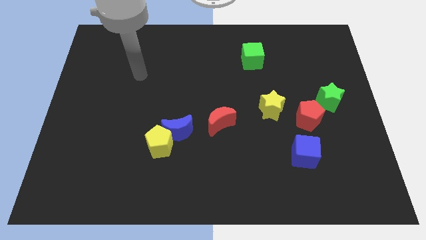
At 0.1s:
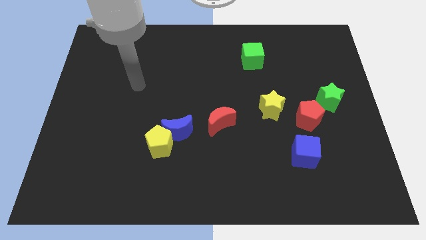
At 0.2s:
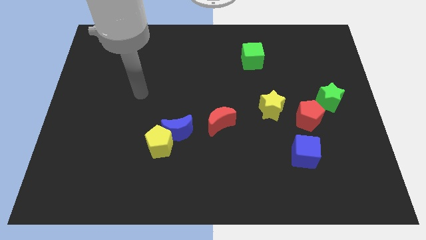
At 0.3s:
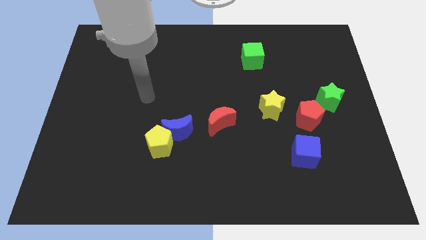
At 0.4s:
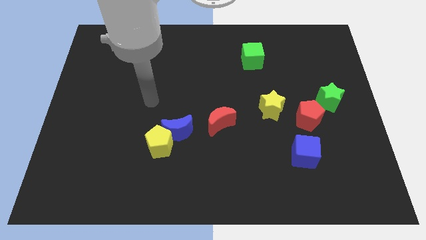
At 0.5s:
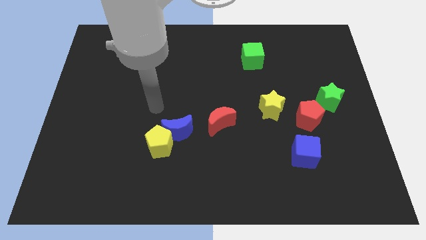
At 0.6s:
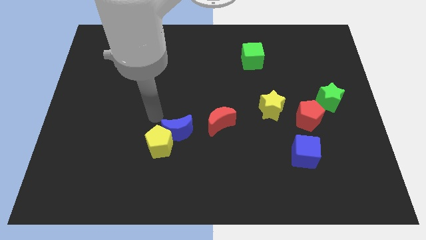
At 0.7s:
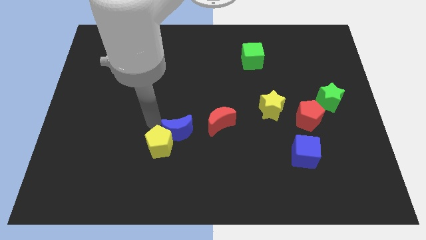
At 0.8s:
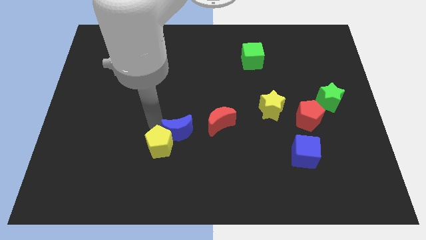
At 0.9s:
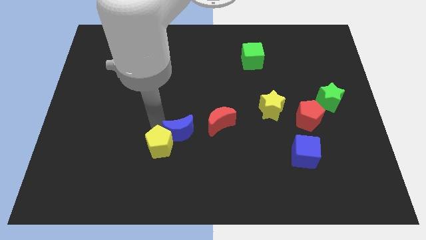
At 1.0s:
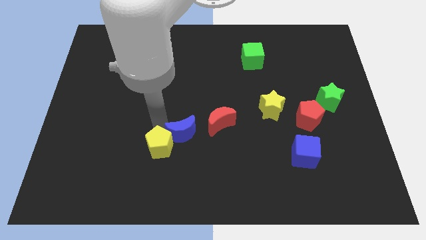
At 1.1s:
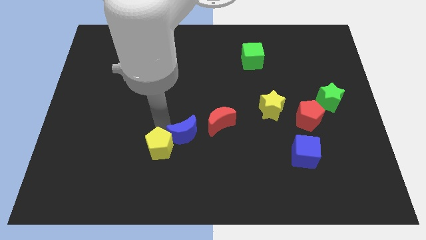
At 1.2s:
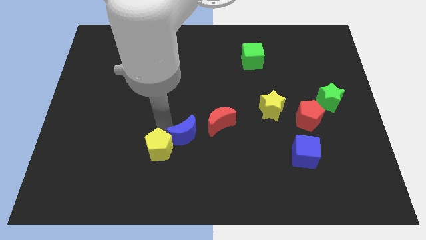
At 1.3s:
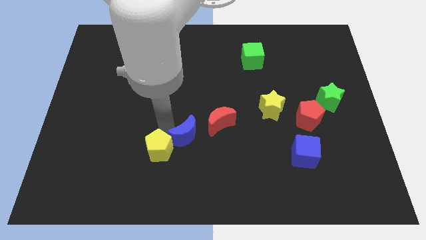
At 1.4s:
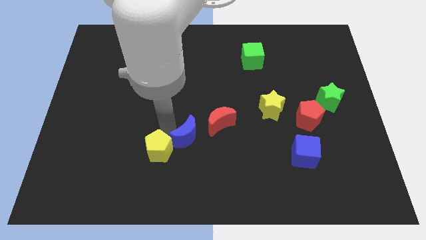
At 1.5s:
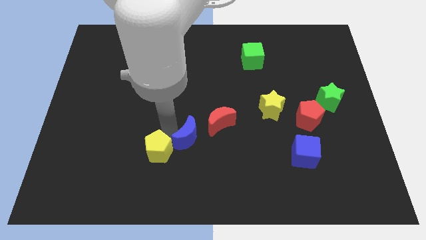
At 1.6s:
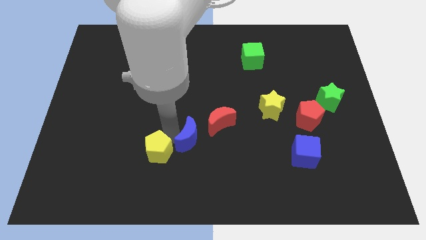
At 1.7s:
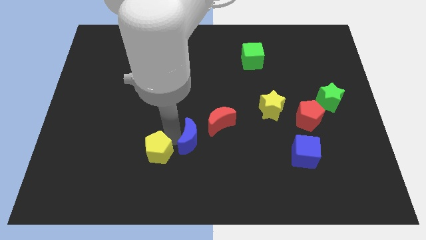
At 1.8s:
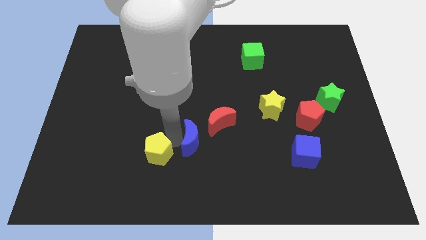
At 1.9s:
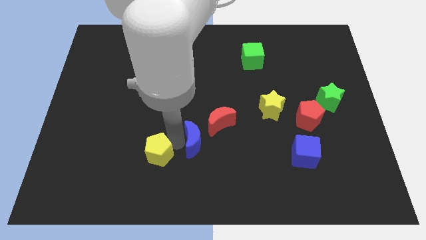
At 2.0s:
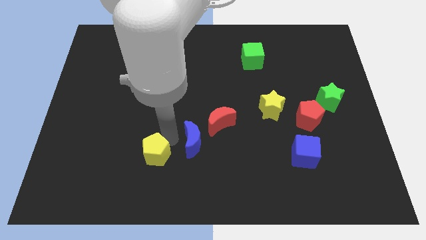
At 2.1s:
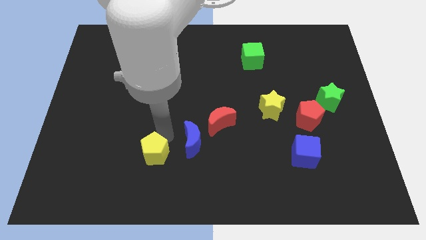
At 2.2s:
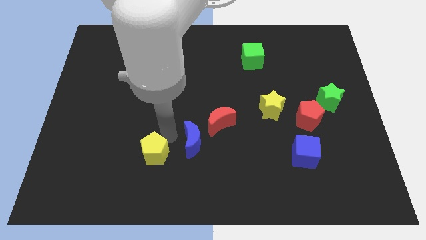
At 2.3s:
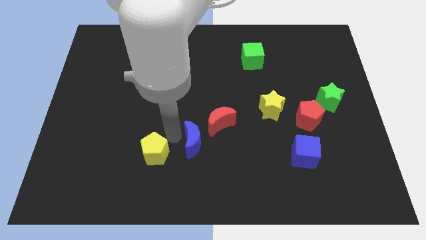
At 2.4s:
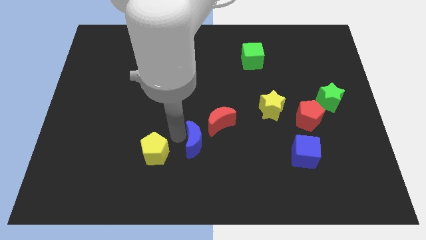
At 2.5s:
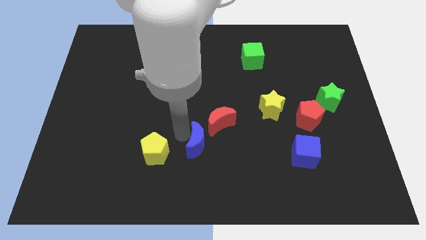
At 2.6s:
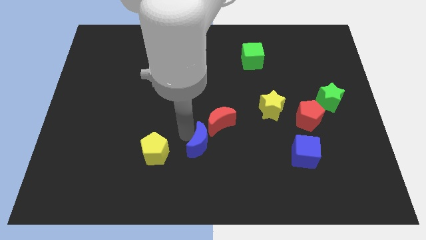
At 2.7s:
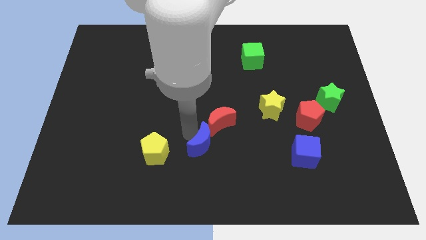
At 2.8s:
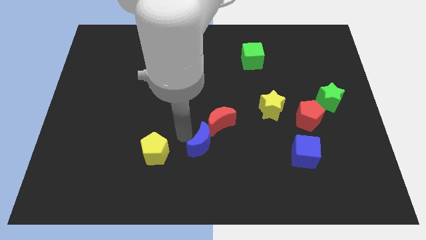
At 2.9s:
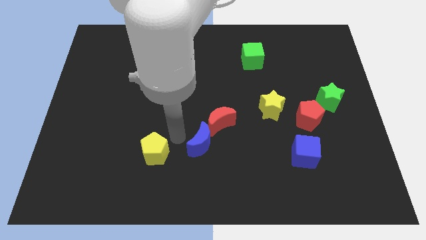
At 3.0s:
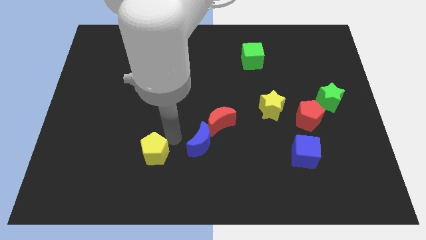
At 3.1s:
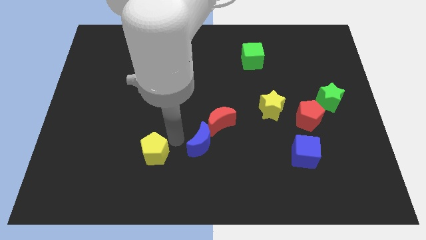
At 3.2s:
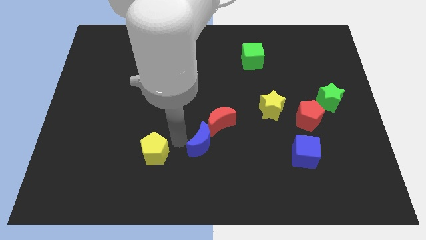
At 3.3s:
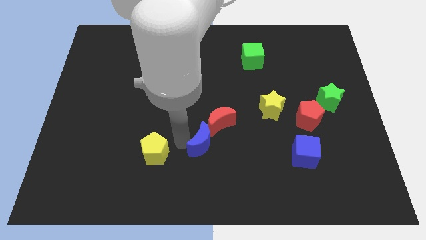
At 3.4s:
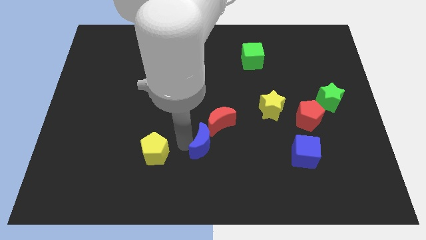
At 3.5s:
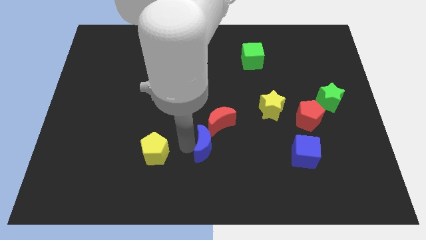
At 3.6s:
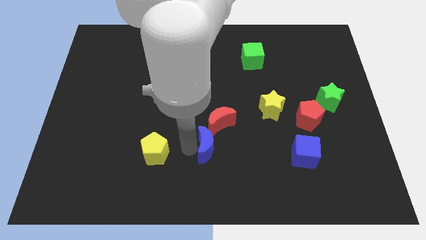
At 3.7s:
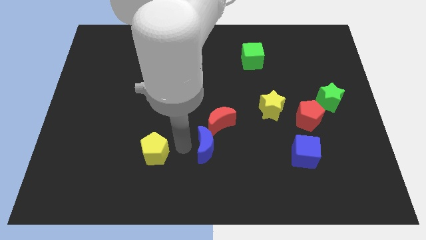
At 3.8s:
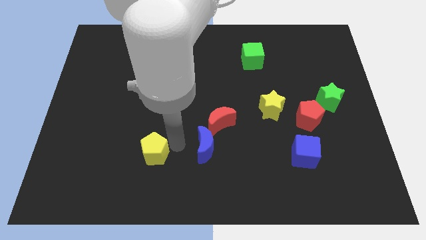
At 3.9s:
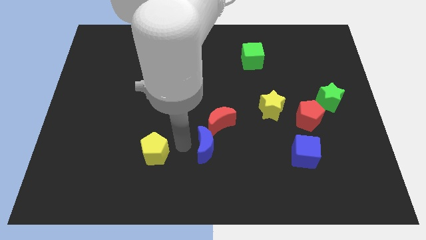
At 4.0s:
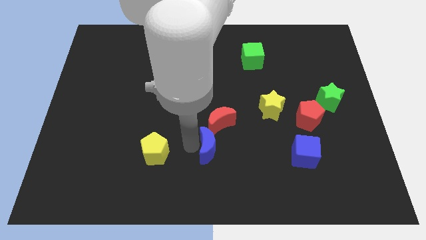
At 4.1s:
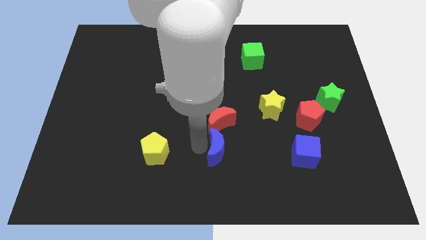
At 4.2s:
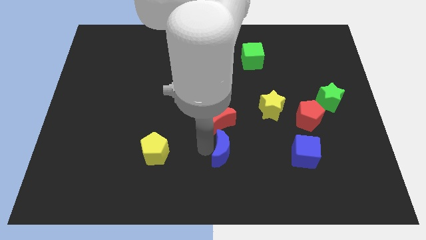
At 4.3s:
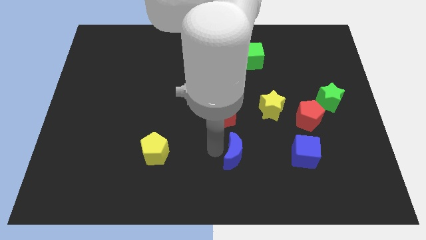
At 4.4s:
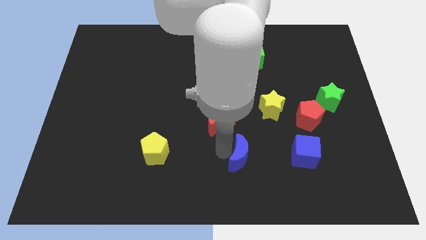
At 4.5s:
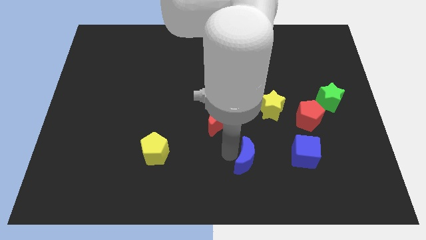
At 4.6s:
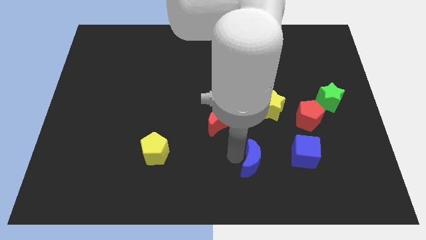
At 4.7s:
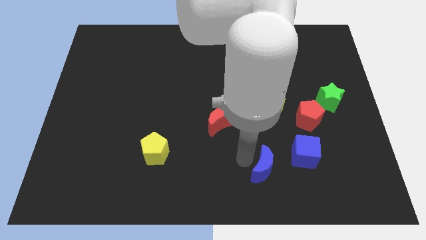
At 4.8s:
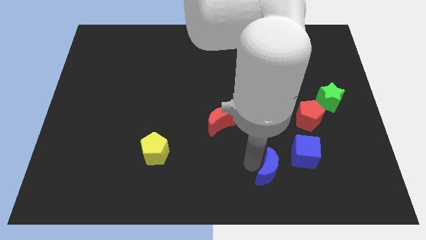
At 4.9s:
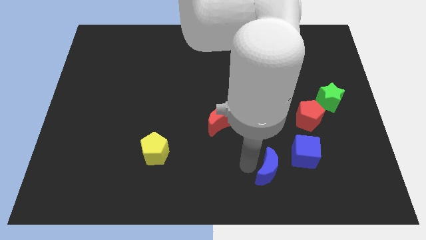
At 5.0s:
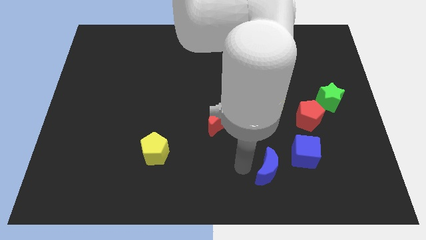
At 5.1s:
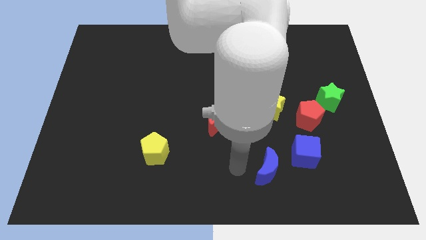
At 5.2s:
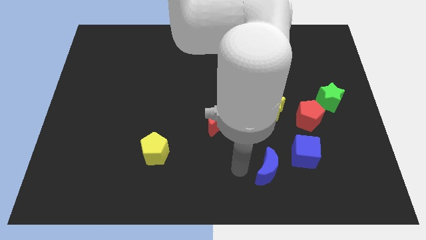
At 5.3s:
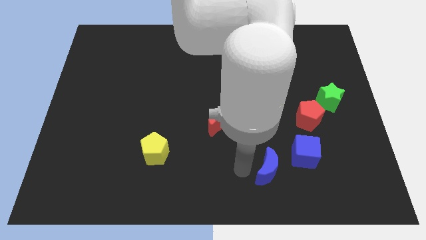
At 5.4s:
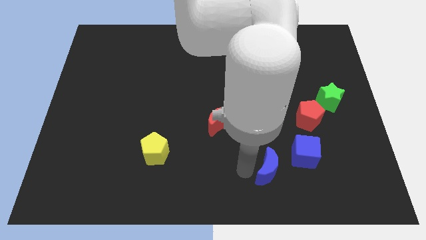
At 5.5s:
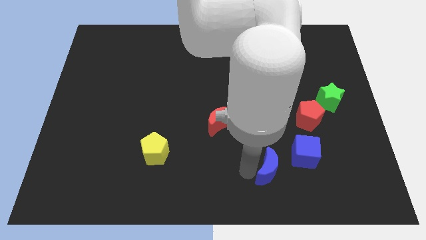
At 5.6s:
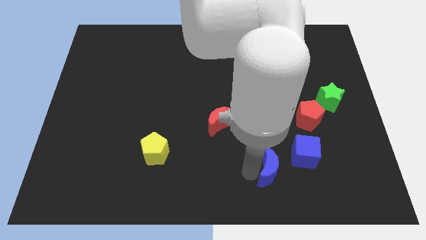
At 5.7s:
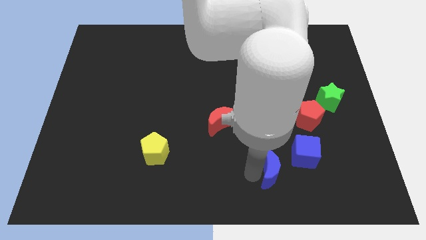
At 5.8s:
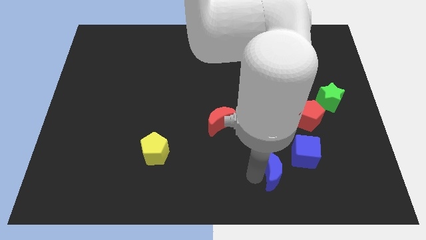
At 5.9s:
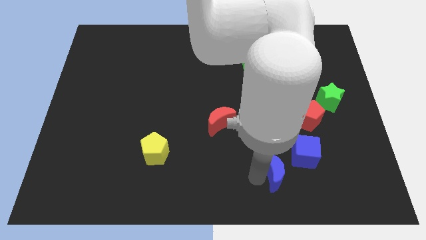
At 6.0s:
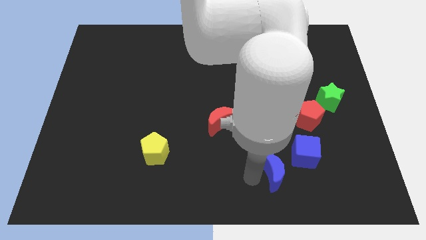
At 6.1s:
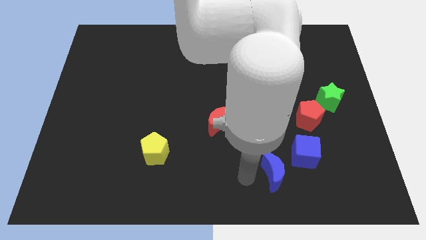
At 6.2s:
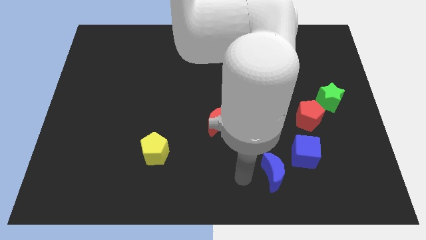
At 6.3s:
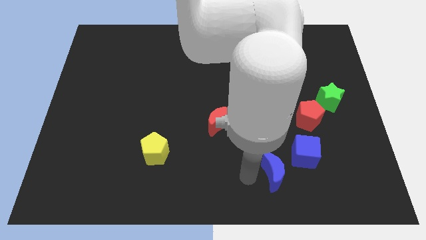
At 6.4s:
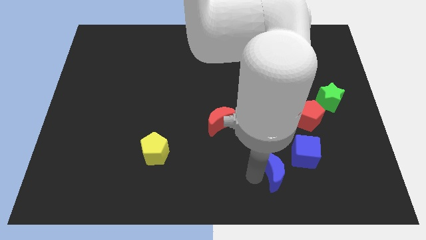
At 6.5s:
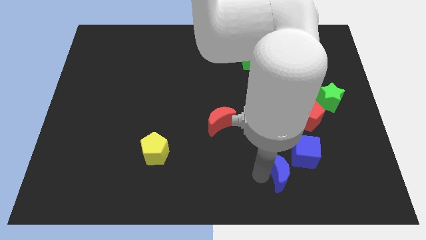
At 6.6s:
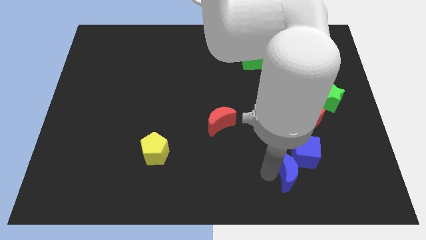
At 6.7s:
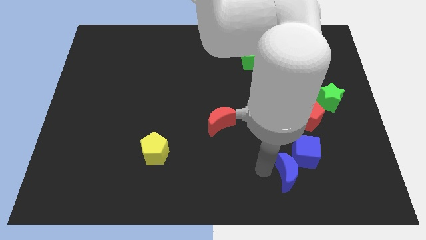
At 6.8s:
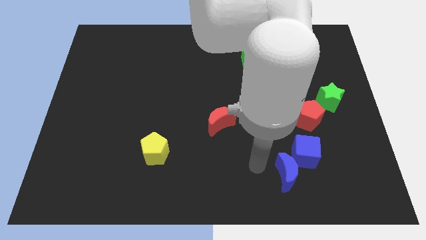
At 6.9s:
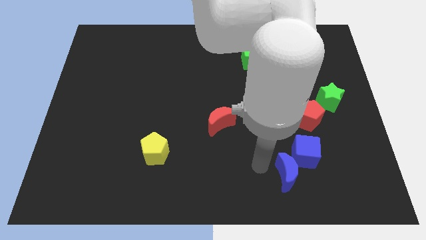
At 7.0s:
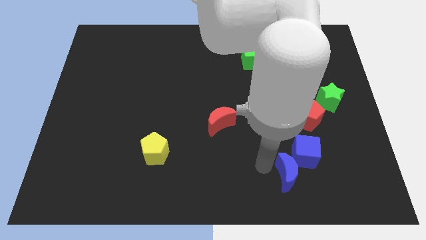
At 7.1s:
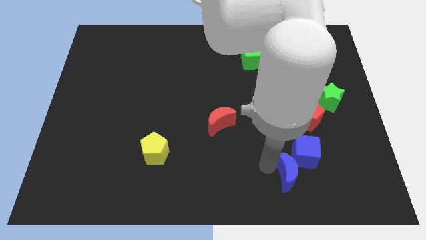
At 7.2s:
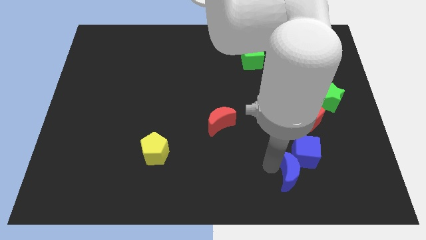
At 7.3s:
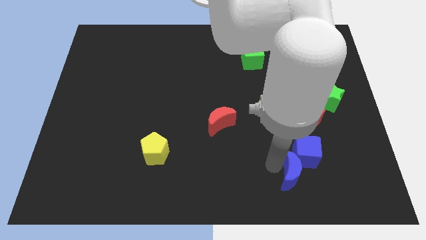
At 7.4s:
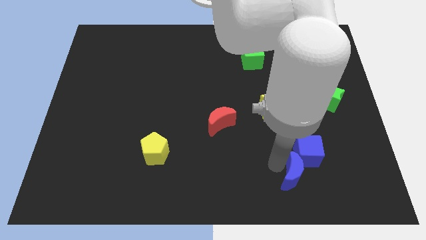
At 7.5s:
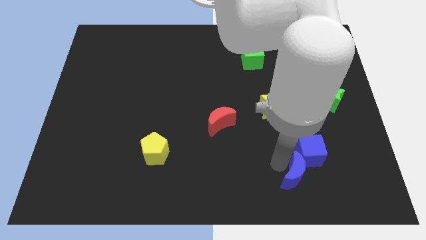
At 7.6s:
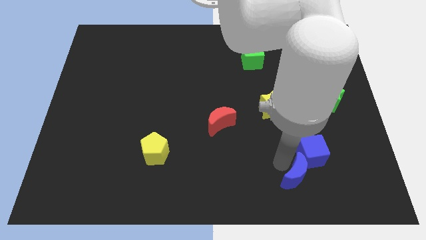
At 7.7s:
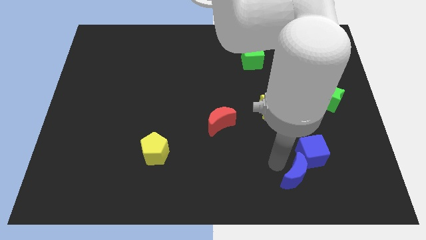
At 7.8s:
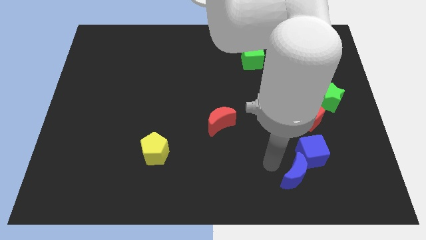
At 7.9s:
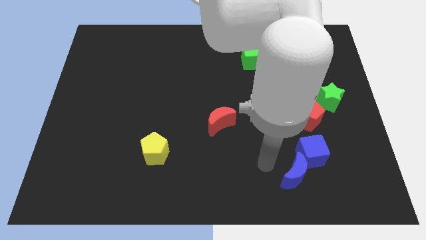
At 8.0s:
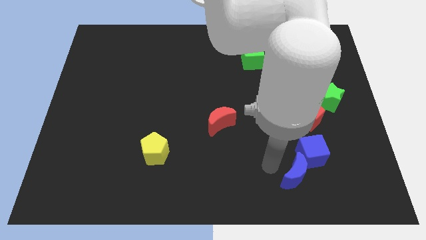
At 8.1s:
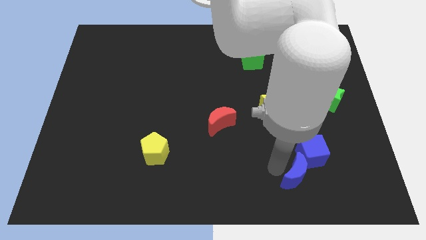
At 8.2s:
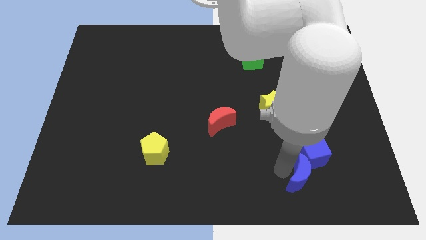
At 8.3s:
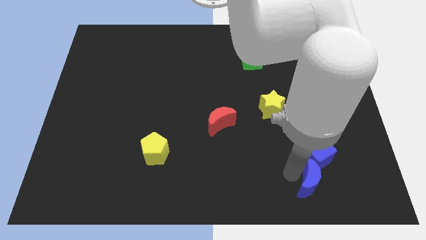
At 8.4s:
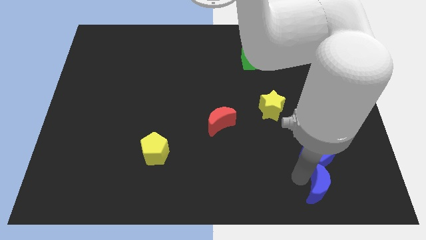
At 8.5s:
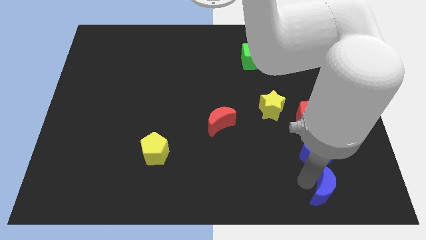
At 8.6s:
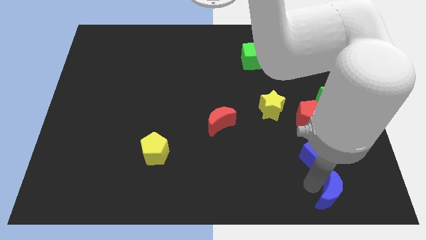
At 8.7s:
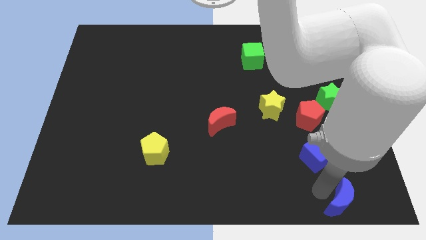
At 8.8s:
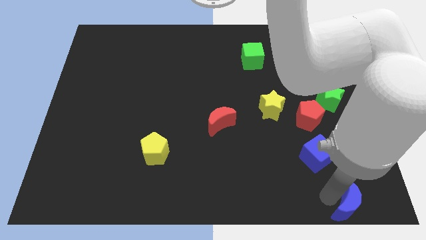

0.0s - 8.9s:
put the blue moon to the bottom right of the board
